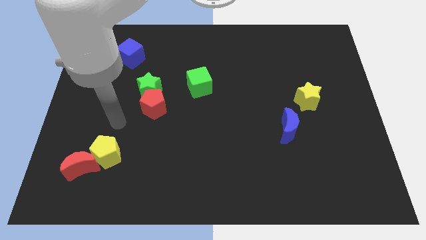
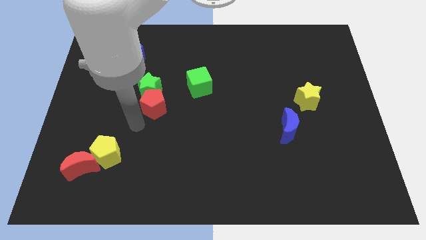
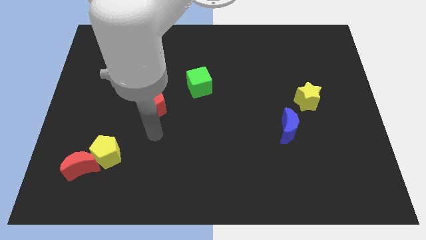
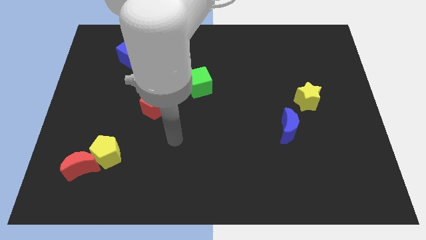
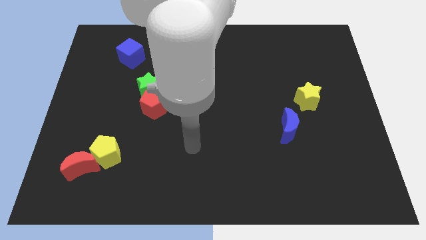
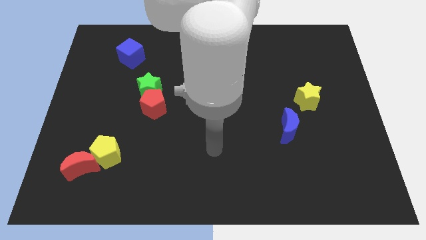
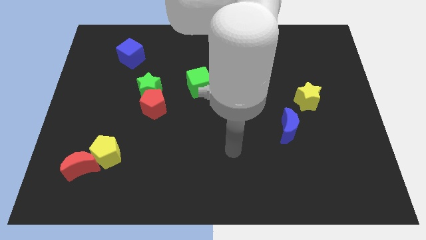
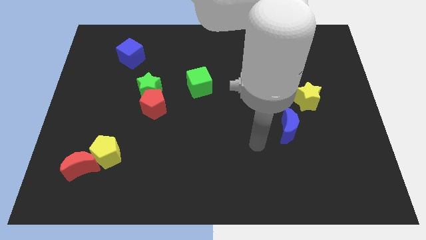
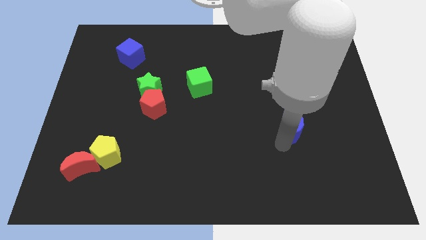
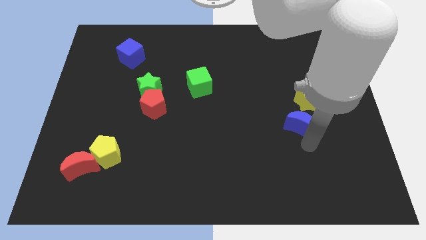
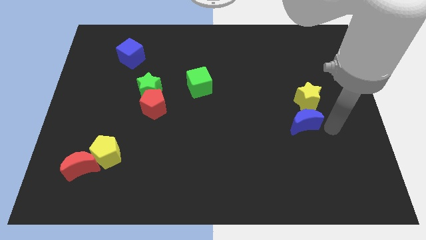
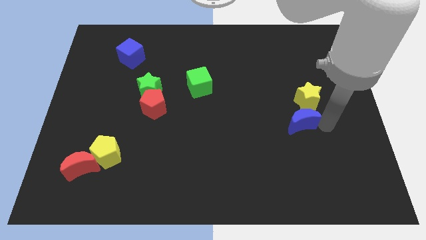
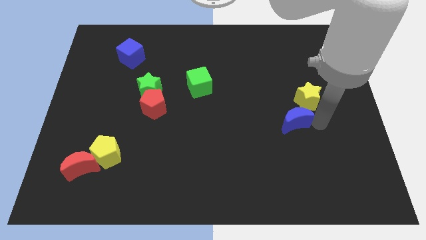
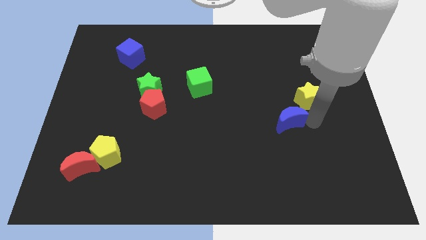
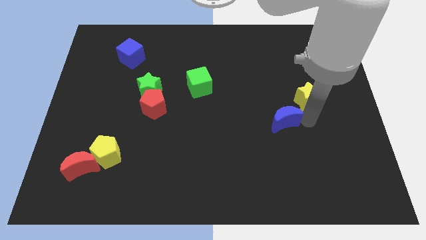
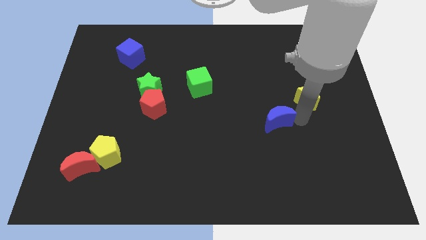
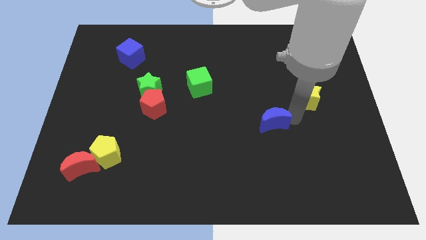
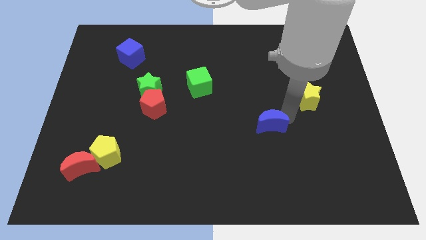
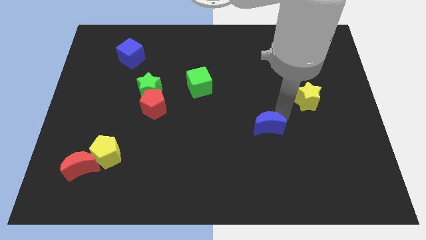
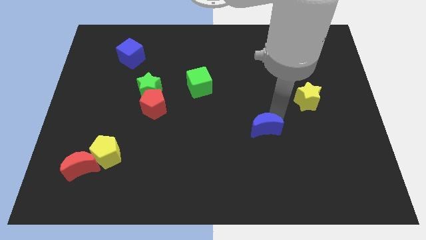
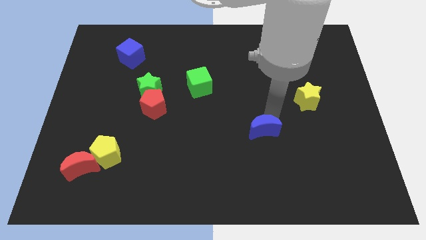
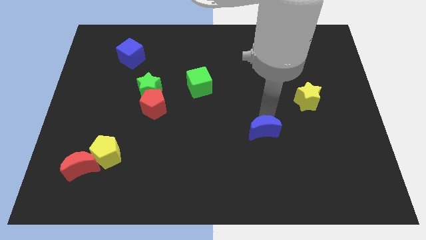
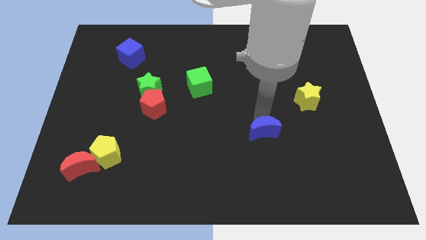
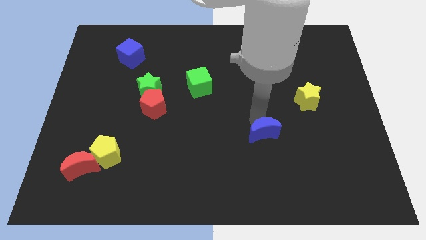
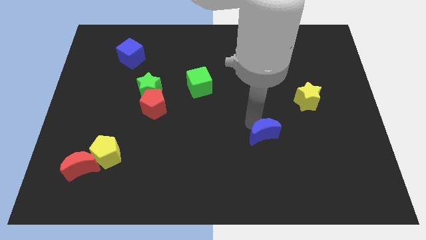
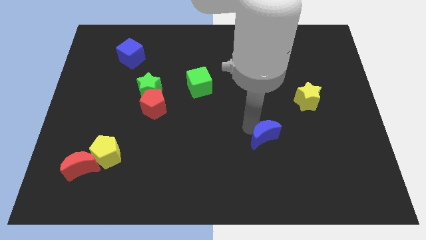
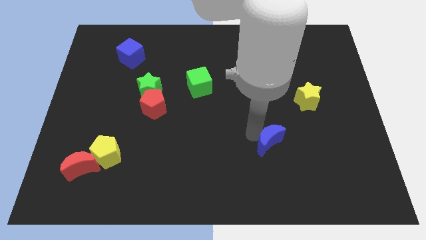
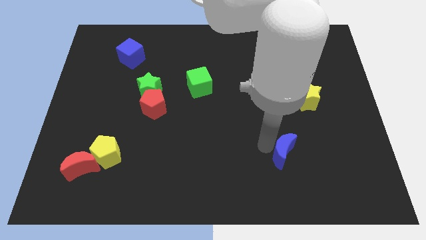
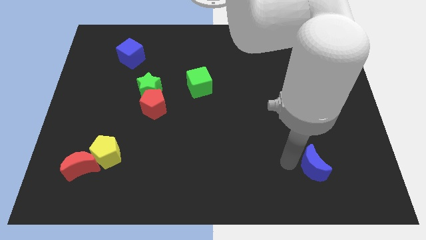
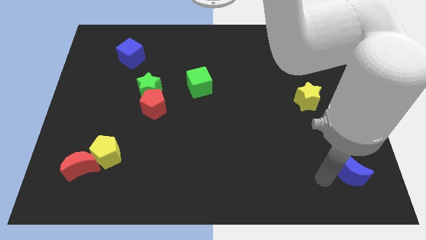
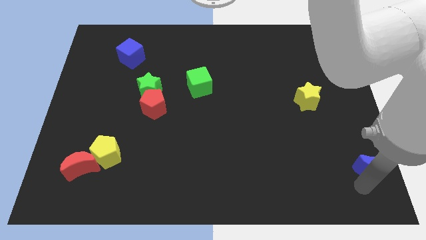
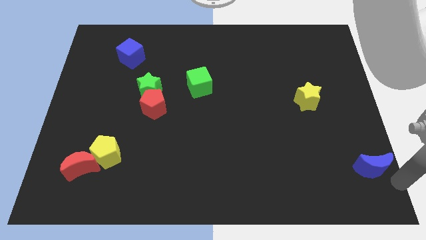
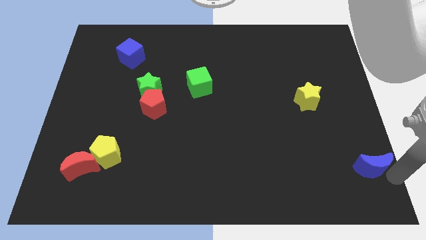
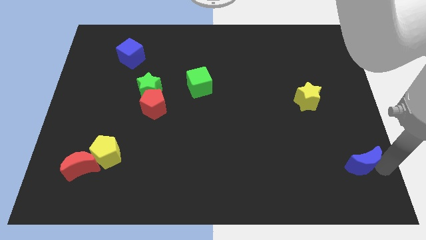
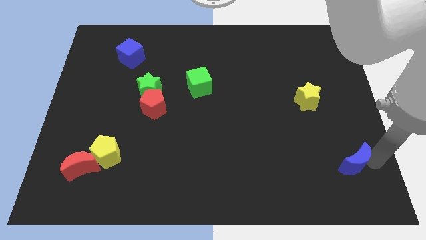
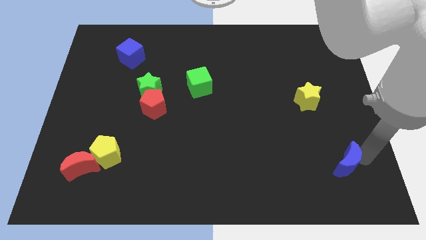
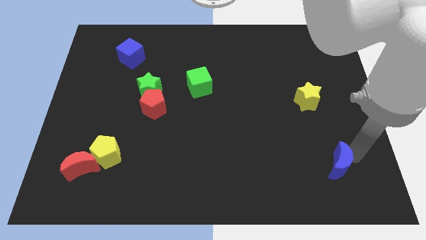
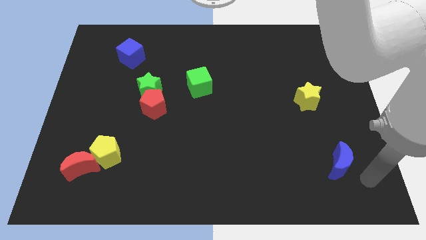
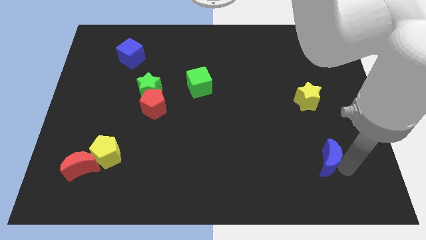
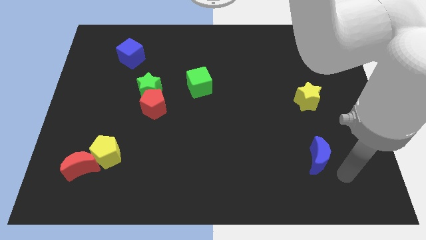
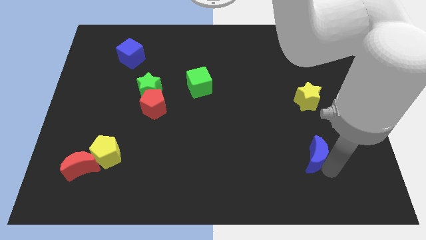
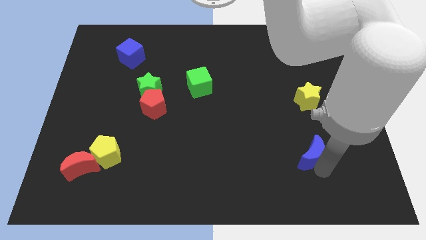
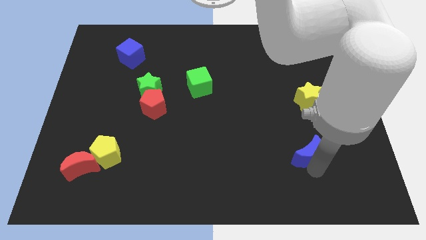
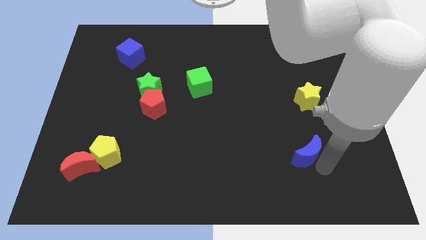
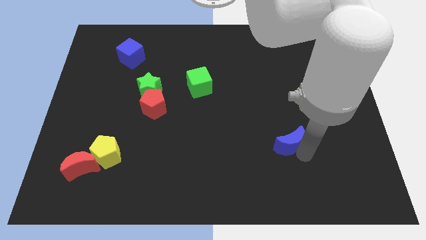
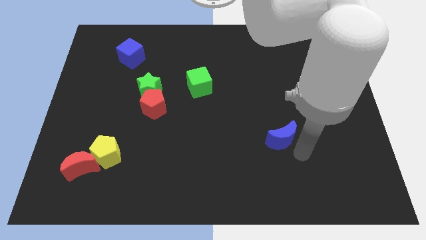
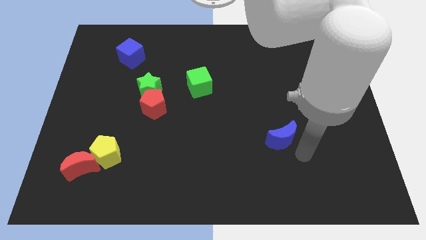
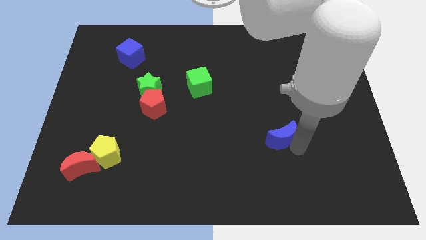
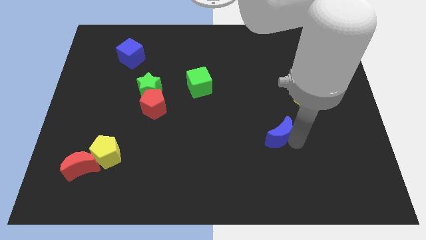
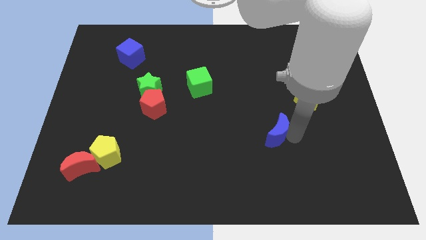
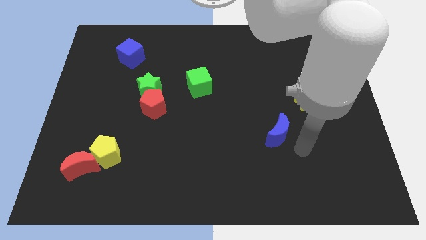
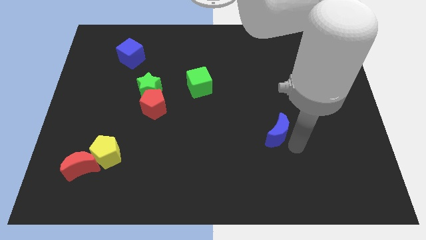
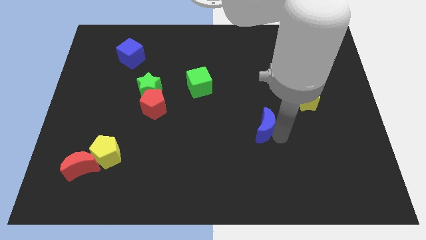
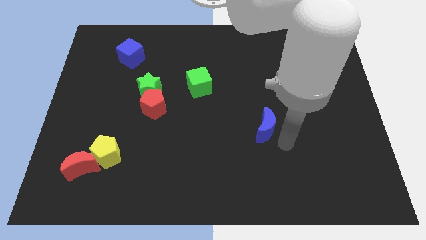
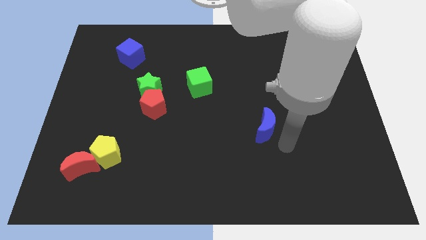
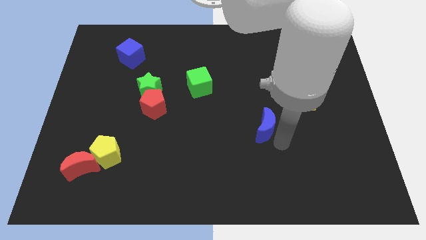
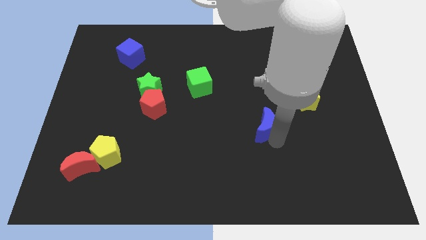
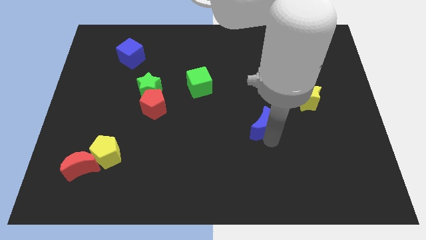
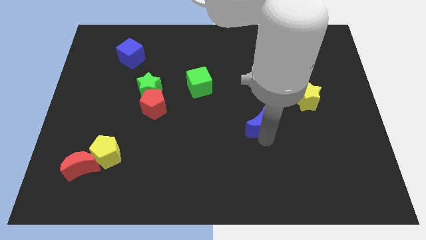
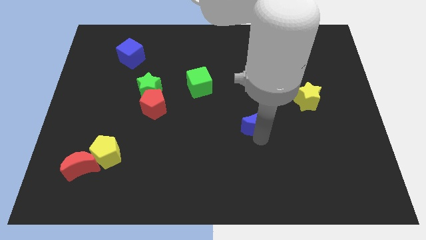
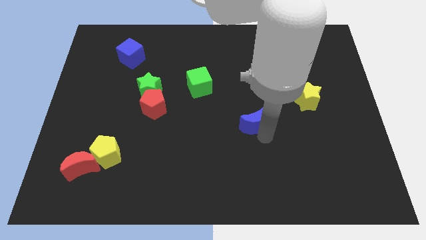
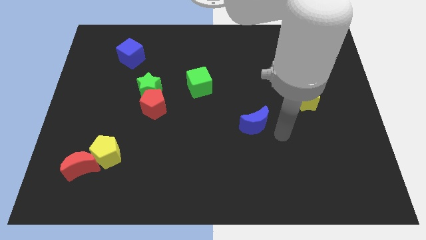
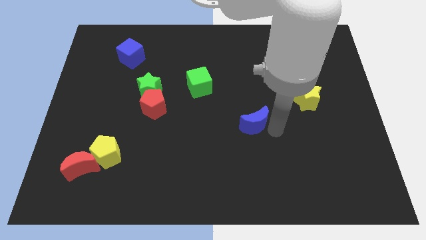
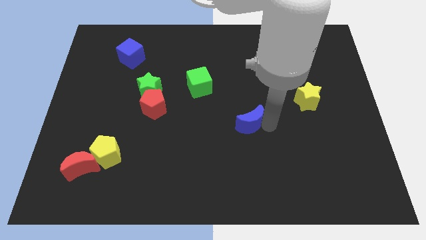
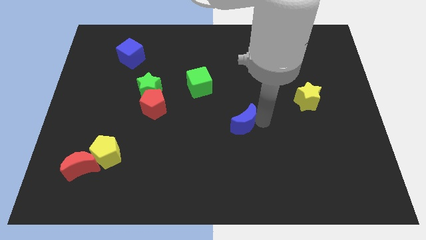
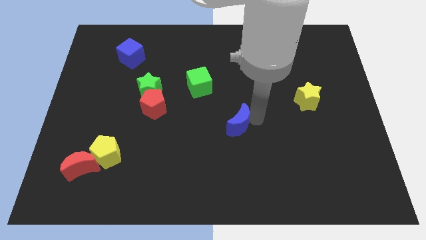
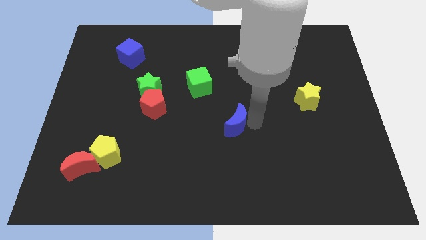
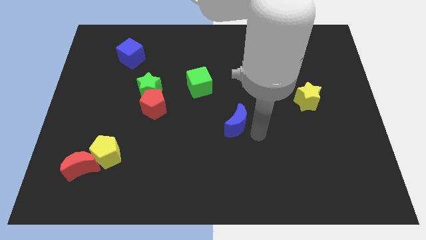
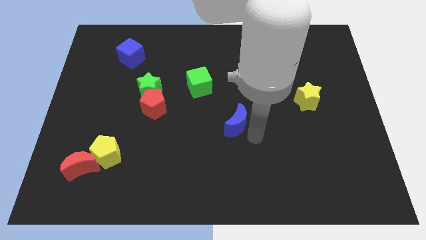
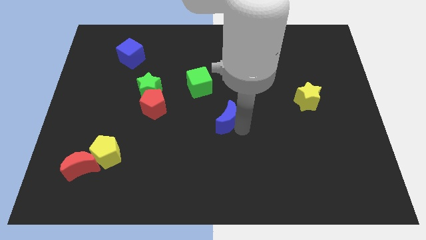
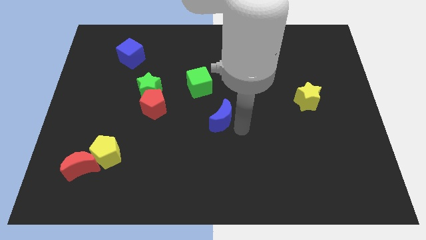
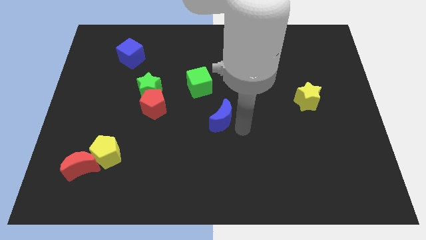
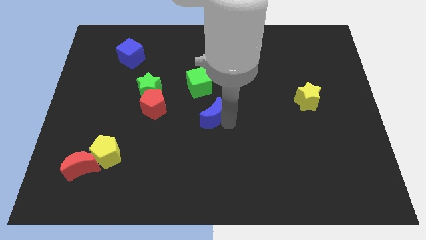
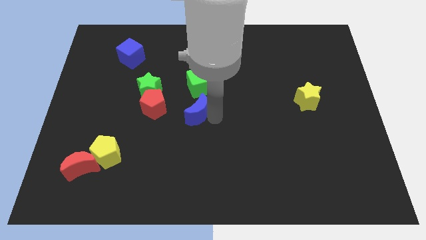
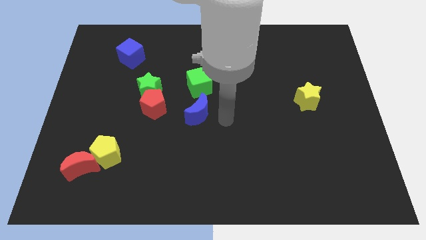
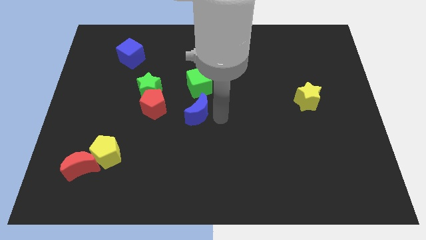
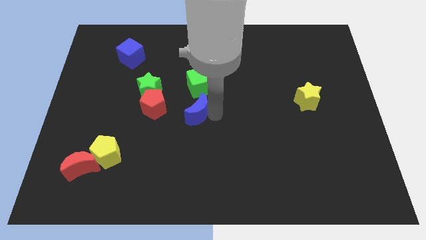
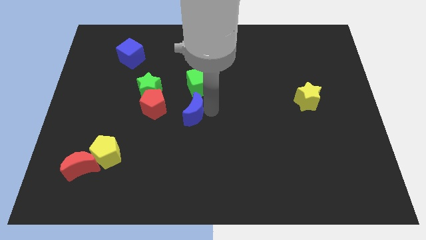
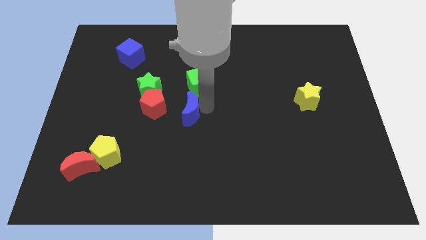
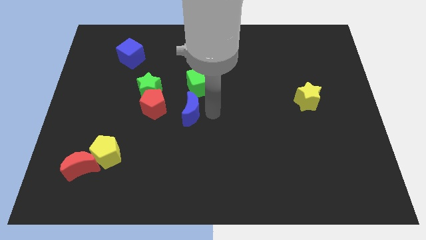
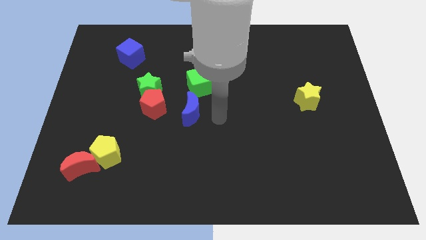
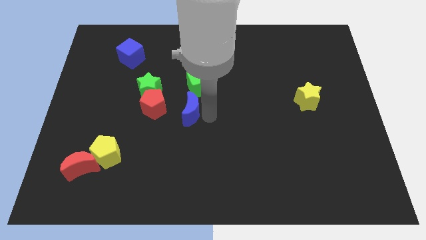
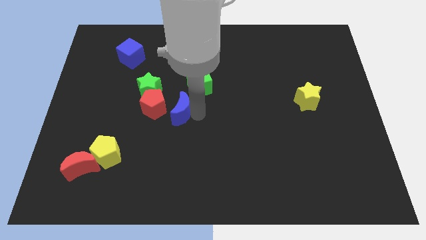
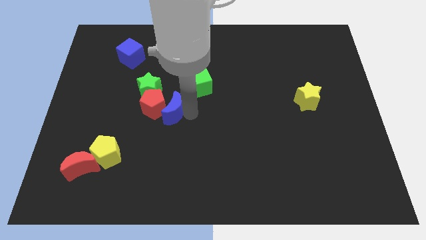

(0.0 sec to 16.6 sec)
push the blue moon next to the red pentagon
